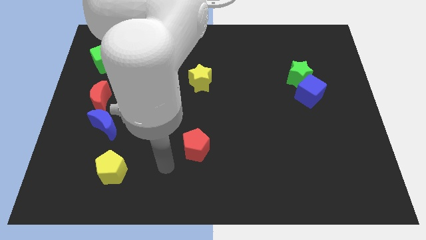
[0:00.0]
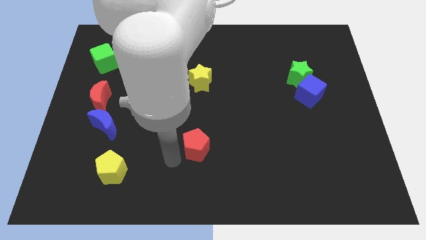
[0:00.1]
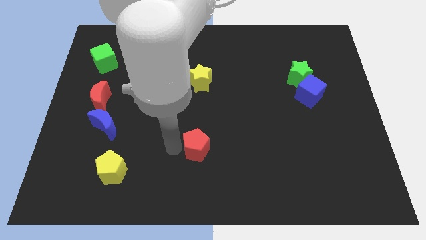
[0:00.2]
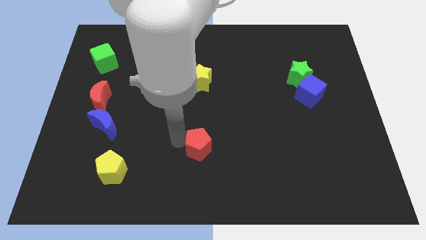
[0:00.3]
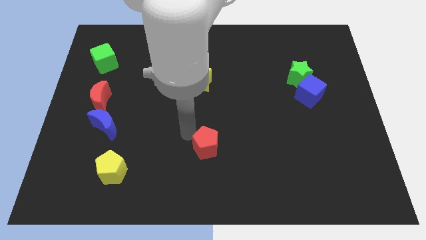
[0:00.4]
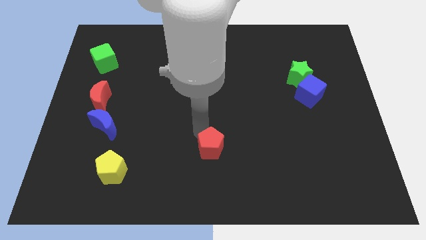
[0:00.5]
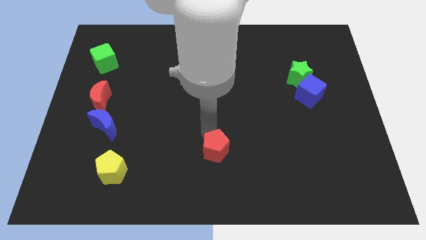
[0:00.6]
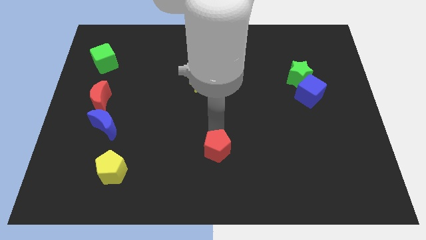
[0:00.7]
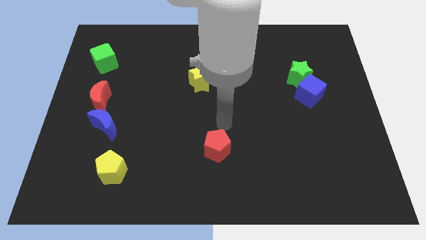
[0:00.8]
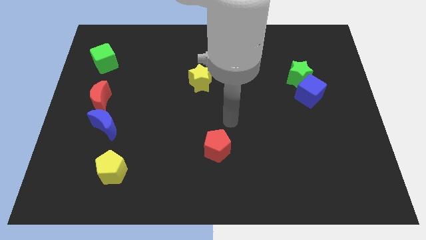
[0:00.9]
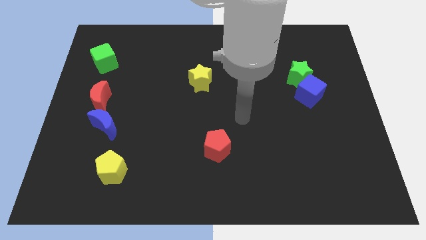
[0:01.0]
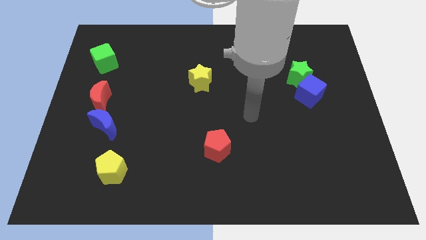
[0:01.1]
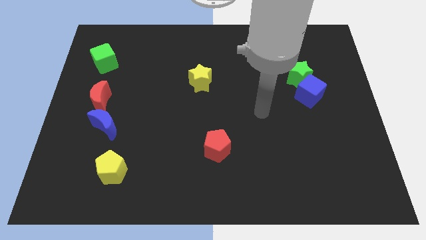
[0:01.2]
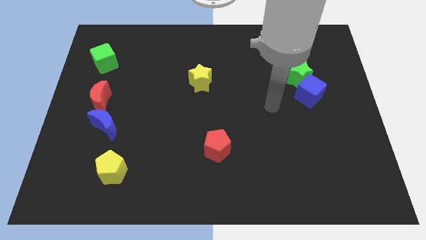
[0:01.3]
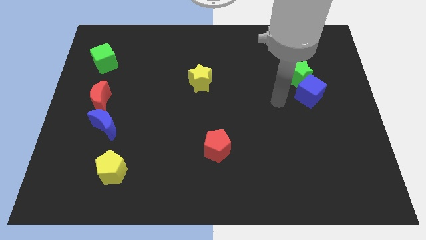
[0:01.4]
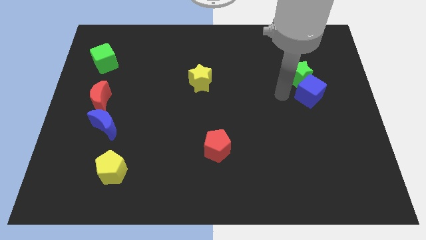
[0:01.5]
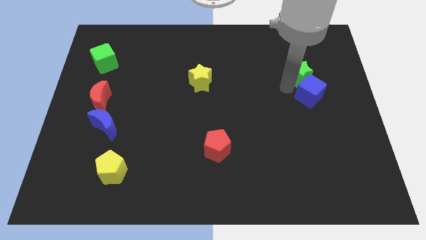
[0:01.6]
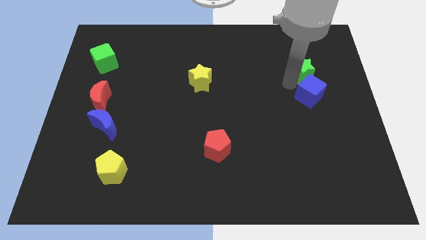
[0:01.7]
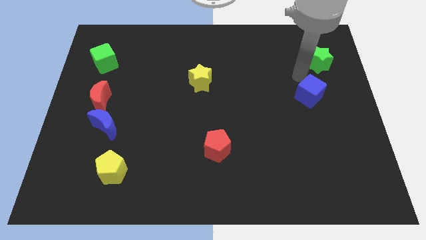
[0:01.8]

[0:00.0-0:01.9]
pull the blue cube apart from the green star

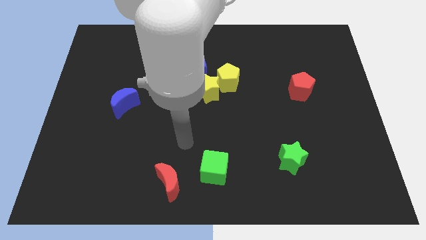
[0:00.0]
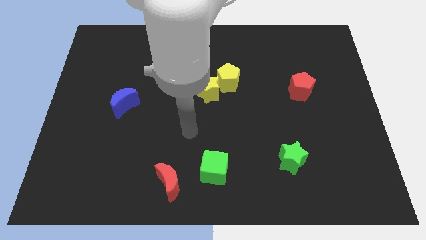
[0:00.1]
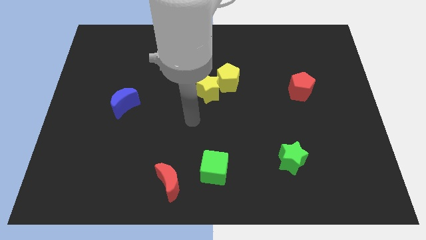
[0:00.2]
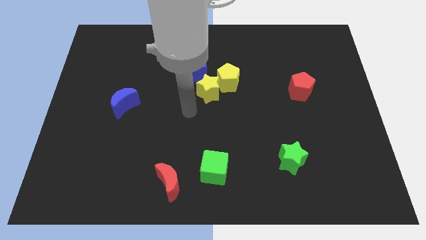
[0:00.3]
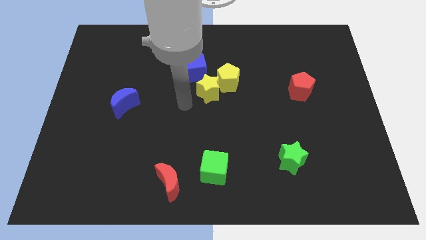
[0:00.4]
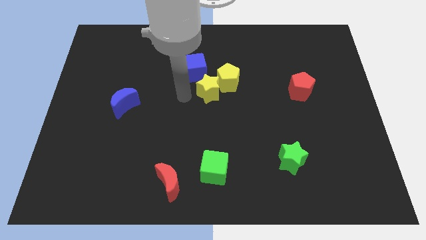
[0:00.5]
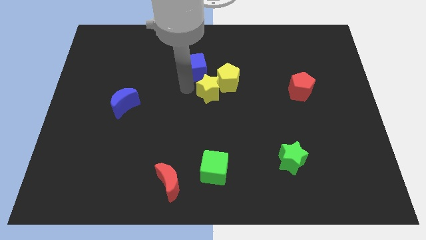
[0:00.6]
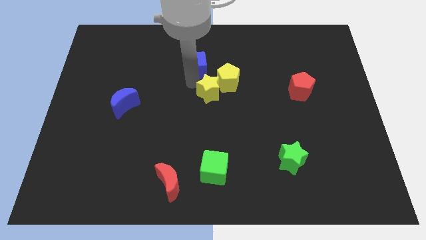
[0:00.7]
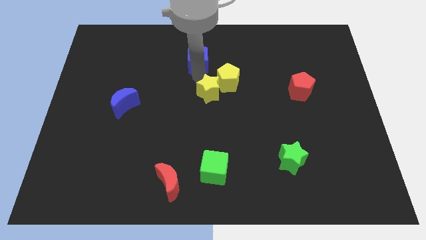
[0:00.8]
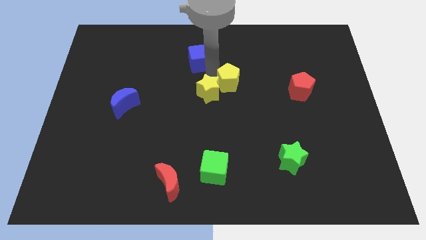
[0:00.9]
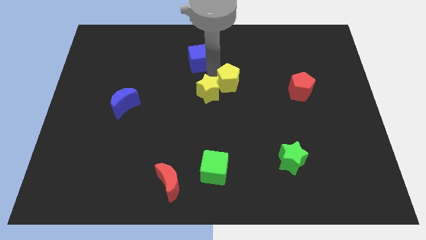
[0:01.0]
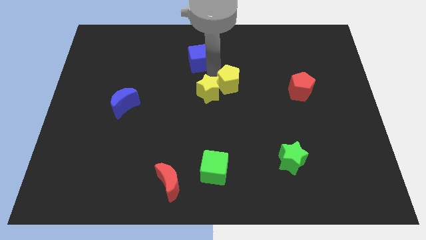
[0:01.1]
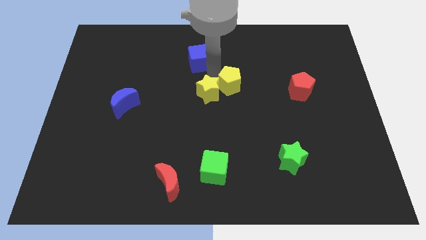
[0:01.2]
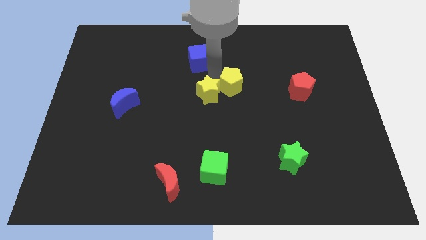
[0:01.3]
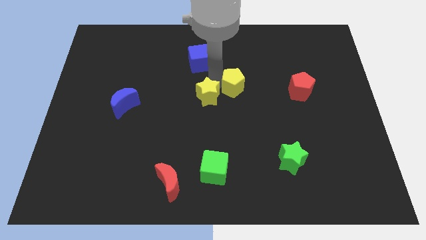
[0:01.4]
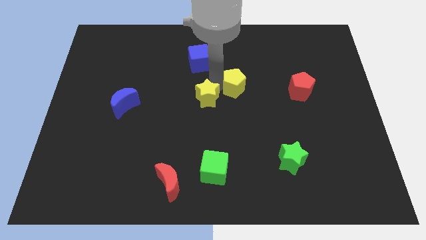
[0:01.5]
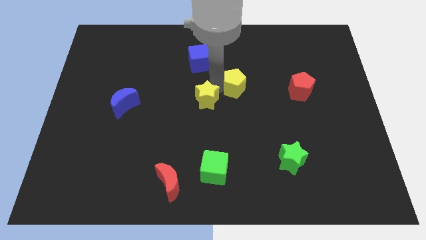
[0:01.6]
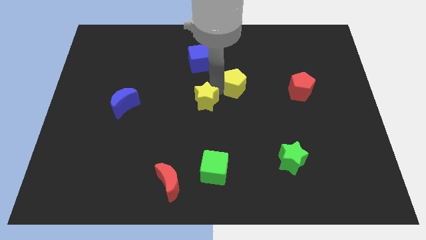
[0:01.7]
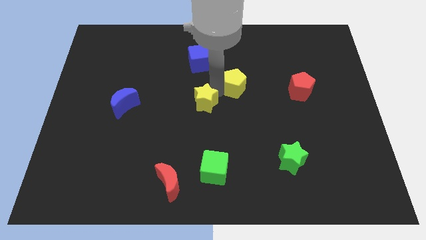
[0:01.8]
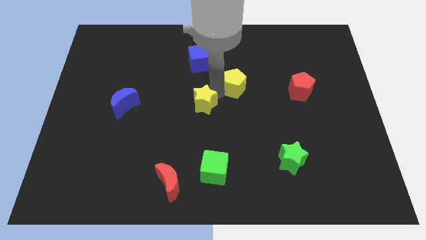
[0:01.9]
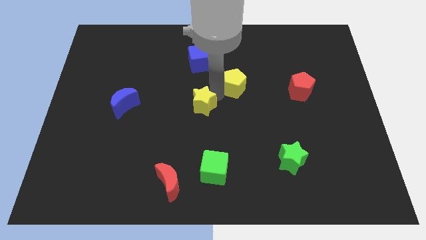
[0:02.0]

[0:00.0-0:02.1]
pull the yellow star apart from the yellow pentagon and blue cube

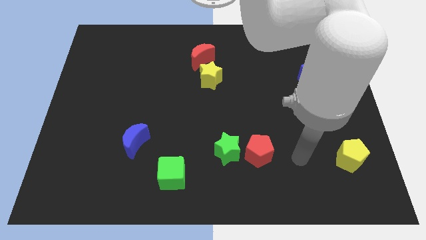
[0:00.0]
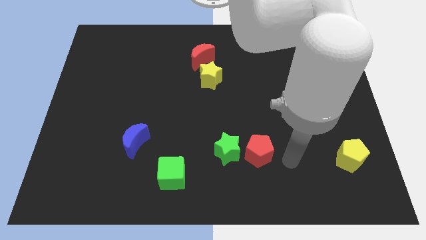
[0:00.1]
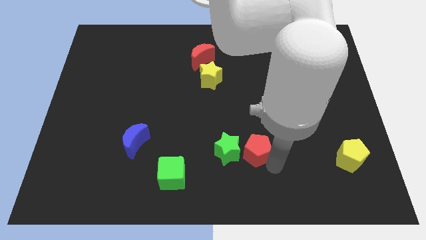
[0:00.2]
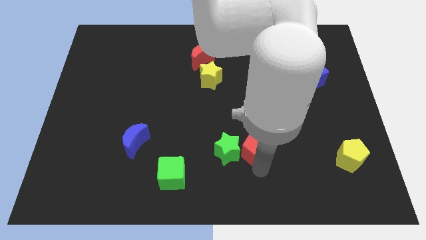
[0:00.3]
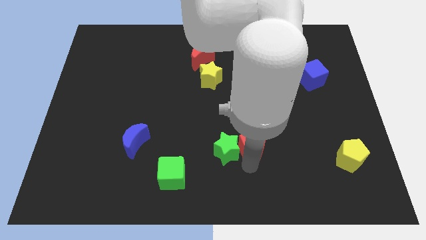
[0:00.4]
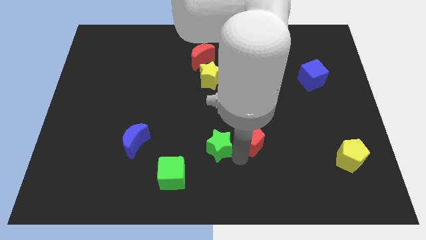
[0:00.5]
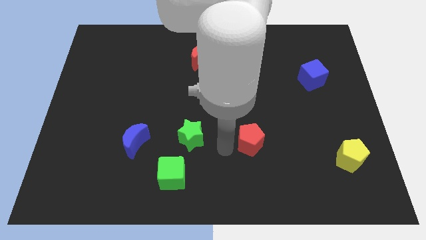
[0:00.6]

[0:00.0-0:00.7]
separate the red pentagon from the green star

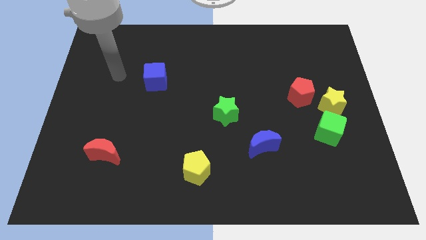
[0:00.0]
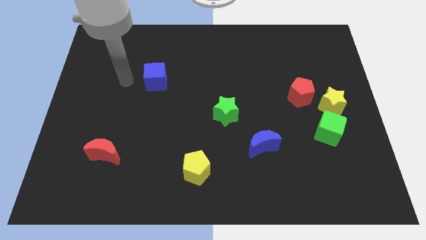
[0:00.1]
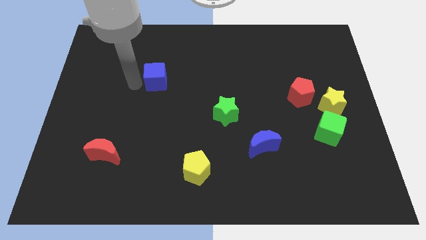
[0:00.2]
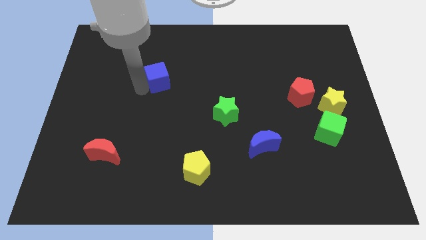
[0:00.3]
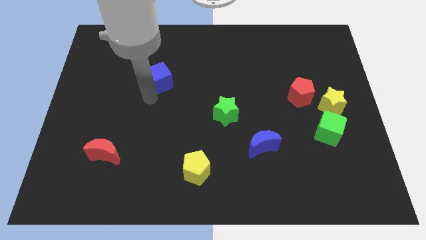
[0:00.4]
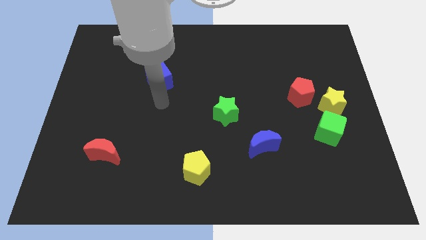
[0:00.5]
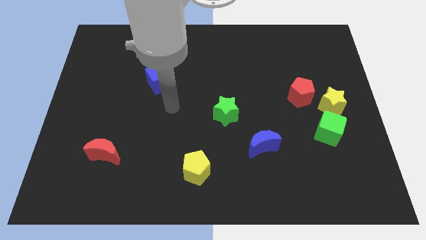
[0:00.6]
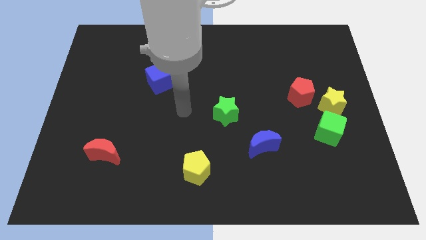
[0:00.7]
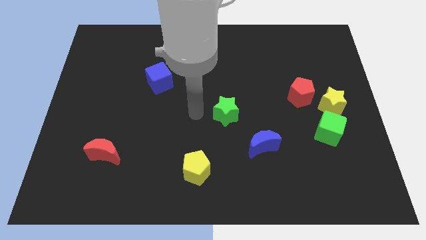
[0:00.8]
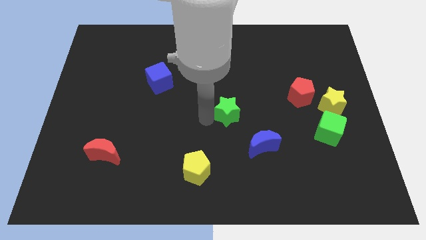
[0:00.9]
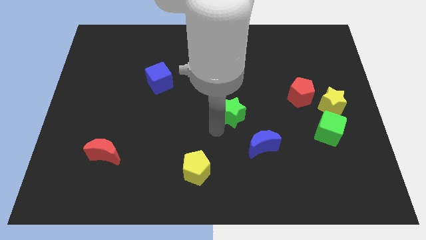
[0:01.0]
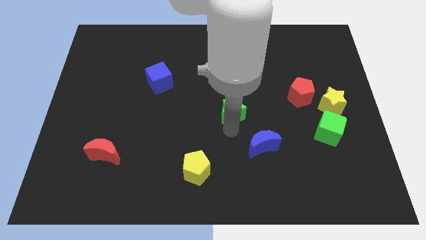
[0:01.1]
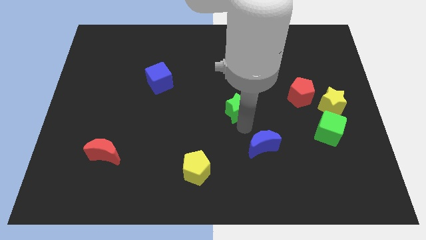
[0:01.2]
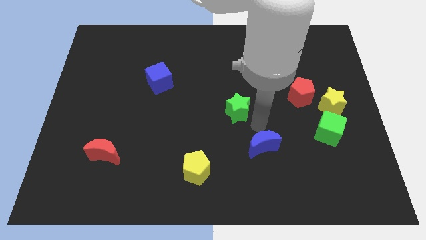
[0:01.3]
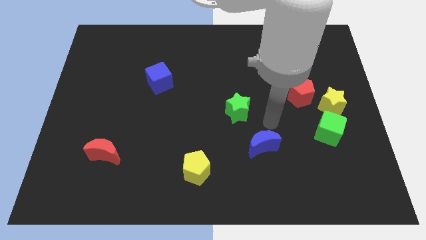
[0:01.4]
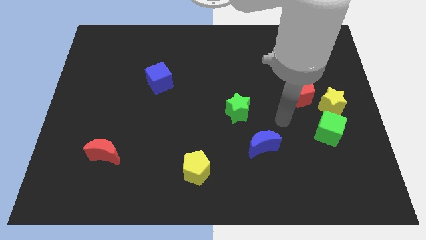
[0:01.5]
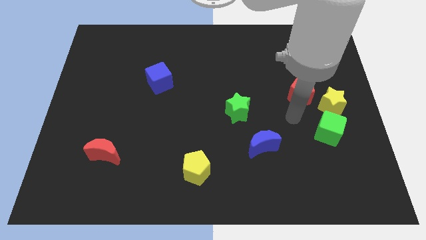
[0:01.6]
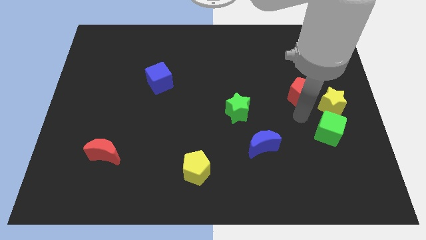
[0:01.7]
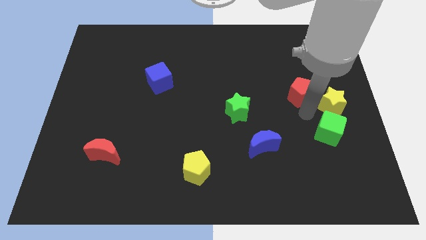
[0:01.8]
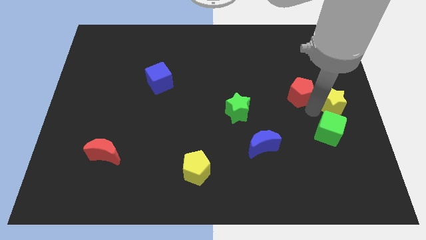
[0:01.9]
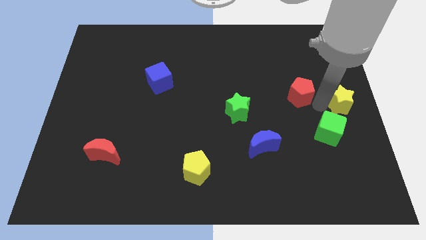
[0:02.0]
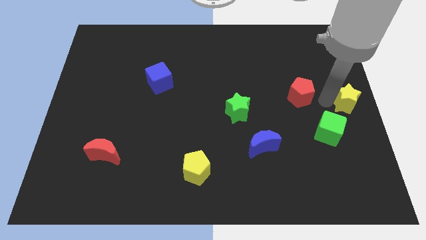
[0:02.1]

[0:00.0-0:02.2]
move the red pentagon away from the yellow star

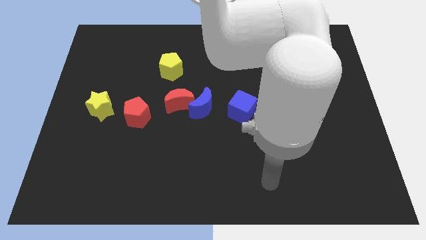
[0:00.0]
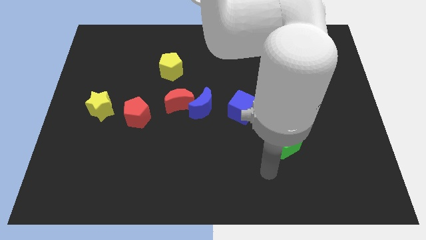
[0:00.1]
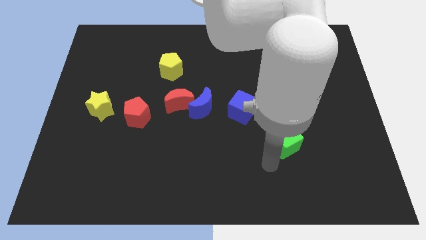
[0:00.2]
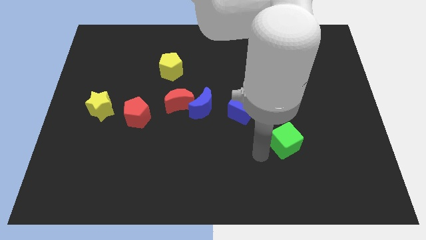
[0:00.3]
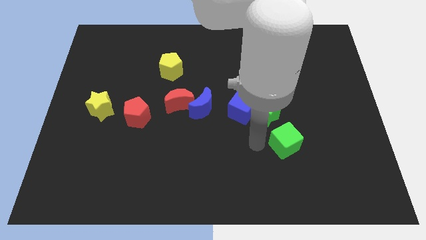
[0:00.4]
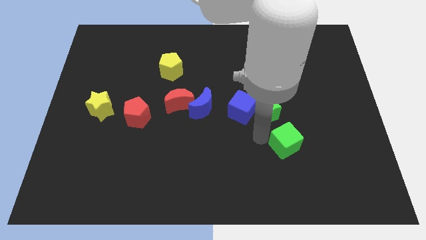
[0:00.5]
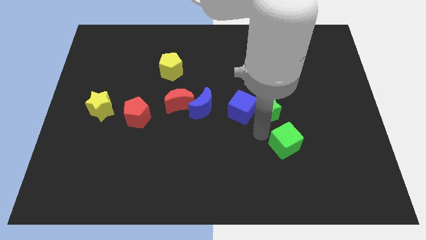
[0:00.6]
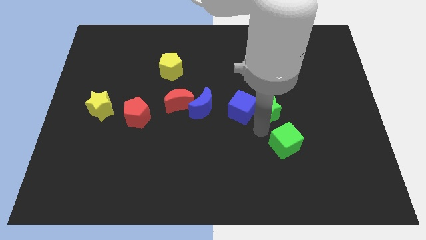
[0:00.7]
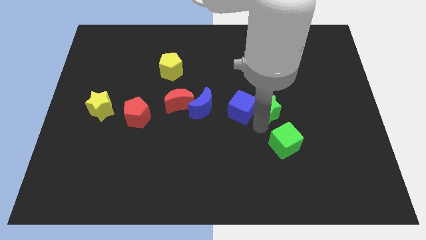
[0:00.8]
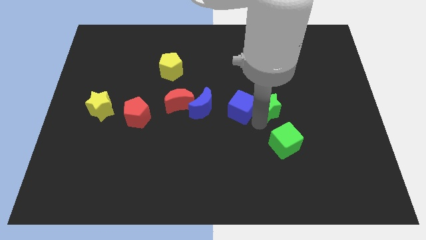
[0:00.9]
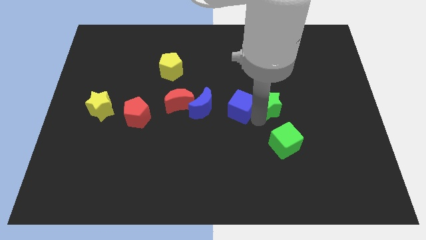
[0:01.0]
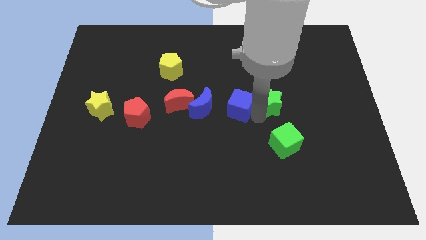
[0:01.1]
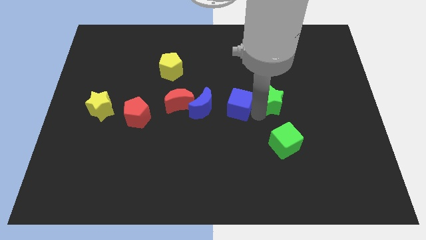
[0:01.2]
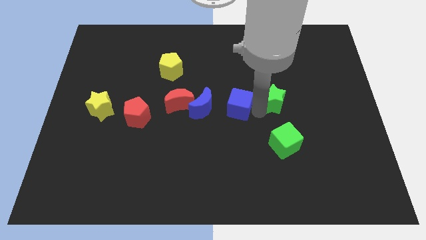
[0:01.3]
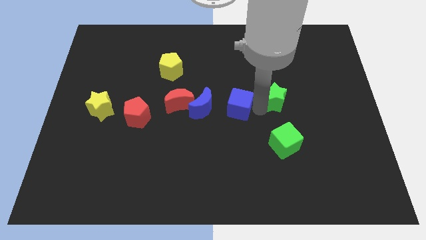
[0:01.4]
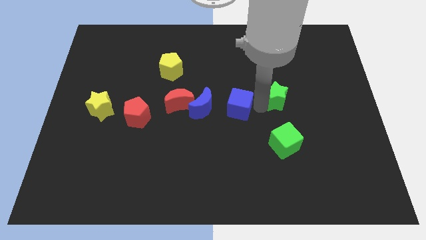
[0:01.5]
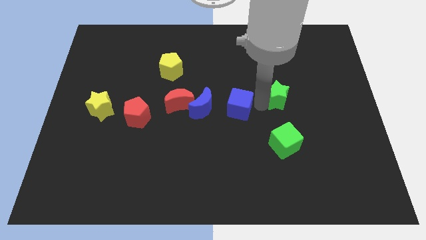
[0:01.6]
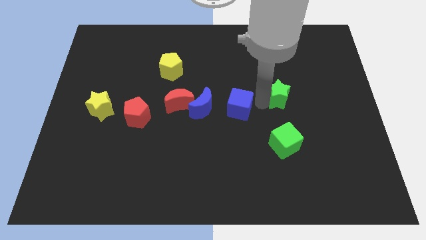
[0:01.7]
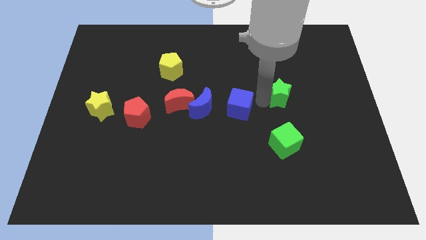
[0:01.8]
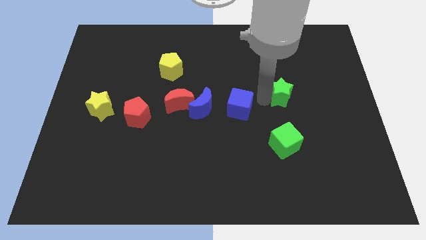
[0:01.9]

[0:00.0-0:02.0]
move the green star away from the blue cube and green cube

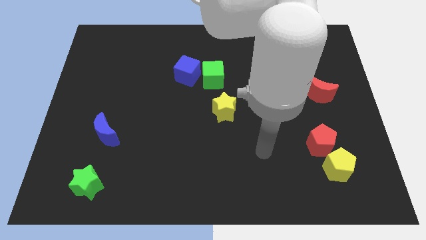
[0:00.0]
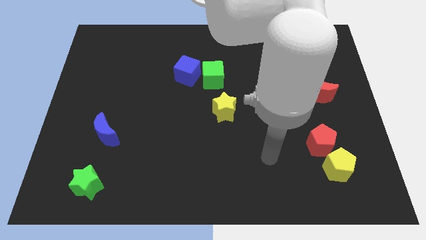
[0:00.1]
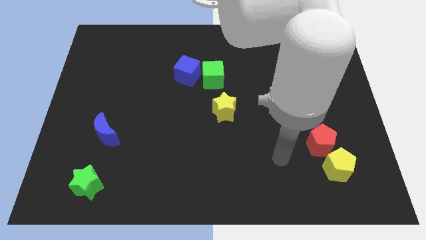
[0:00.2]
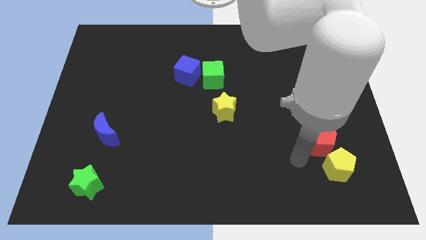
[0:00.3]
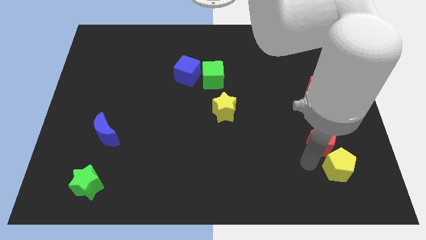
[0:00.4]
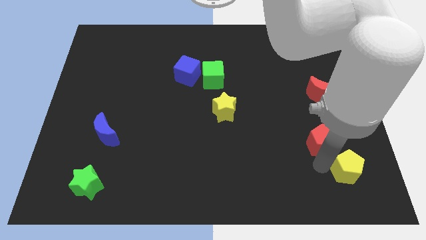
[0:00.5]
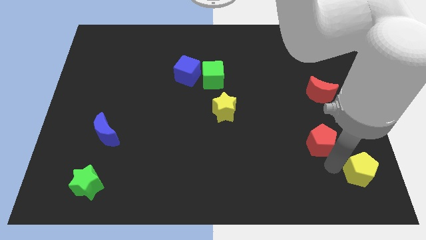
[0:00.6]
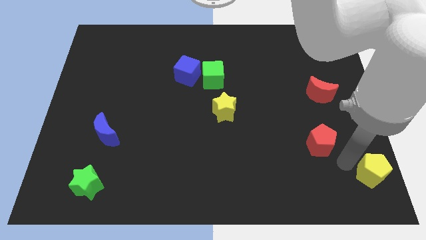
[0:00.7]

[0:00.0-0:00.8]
separate the red pentagon from the yellow pentagon
